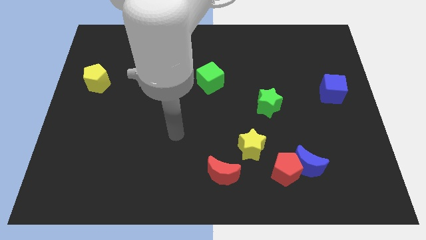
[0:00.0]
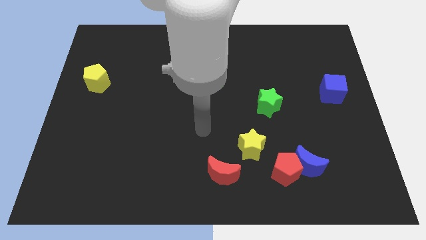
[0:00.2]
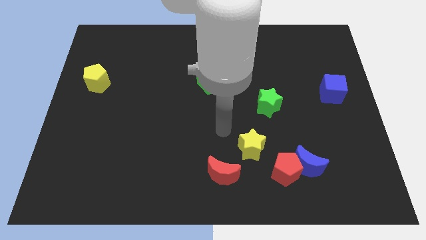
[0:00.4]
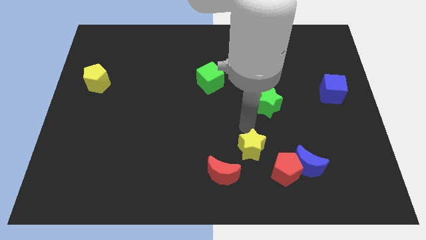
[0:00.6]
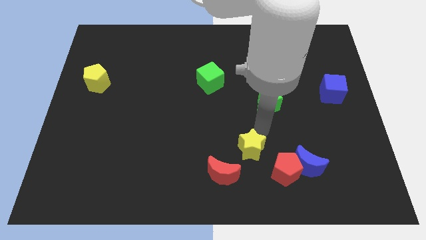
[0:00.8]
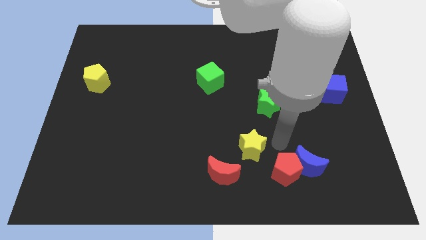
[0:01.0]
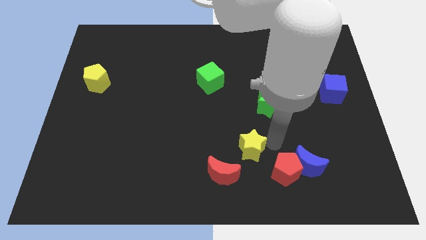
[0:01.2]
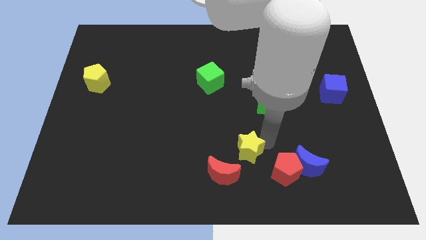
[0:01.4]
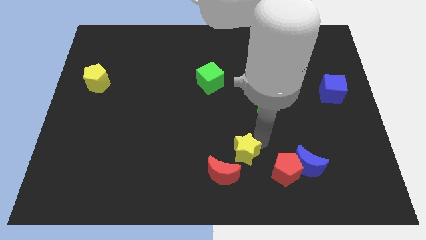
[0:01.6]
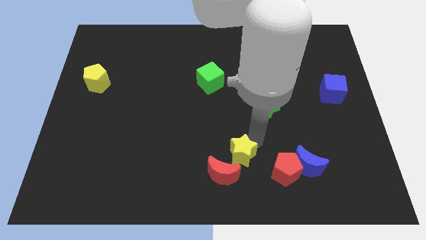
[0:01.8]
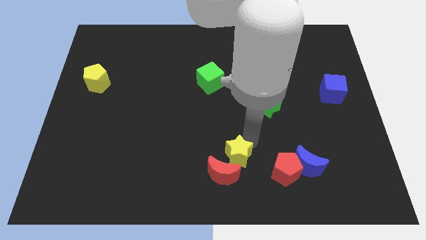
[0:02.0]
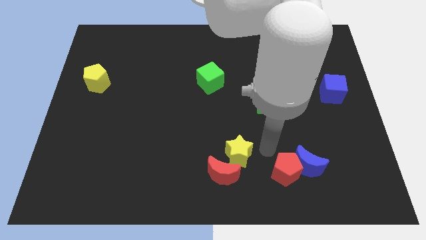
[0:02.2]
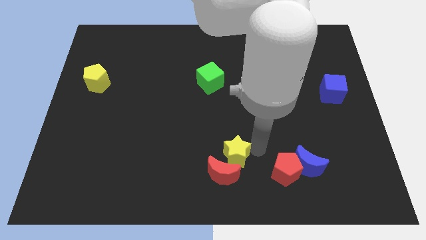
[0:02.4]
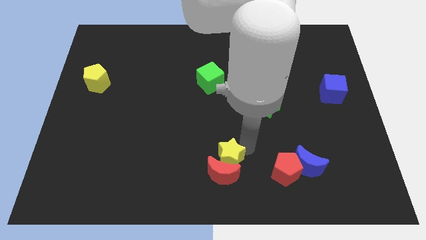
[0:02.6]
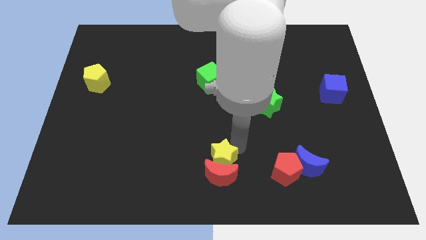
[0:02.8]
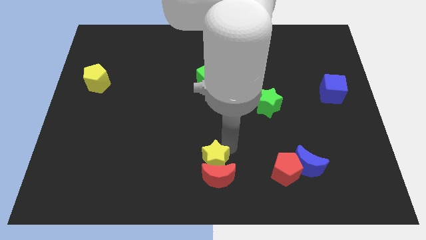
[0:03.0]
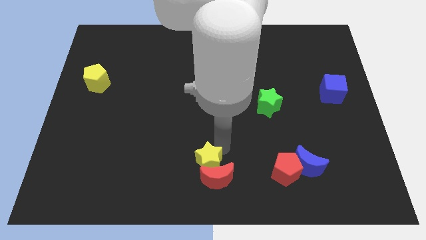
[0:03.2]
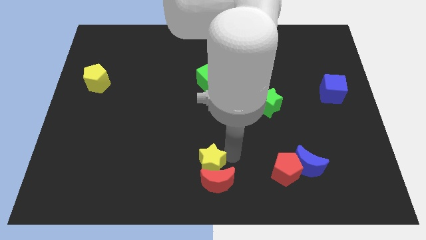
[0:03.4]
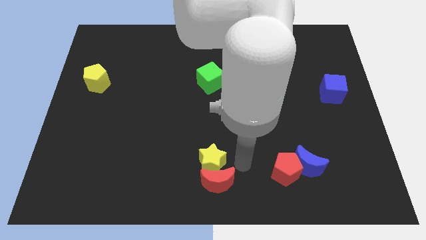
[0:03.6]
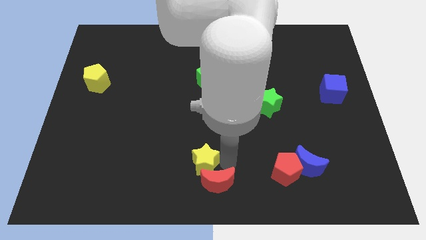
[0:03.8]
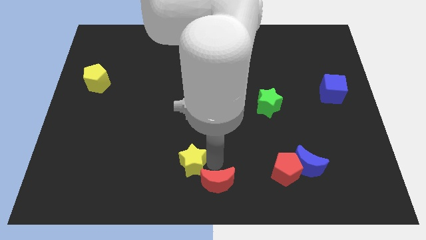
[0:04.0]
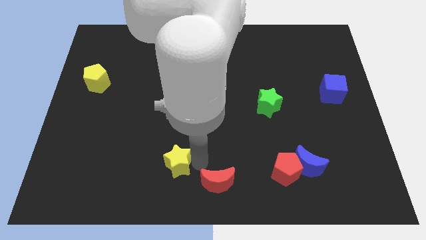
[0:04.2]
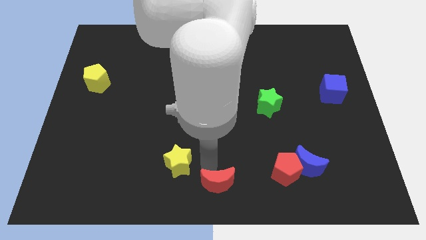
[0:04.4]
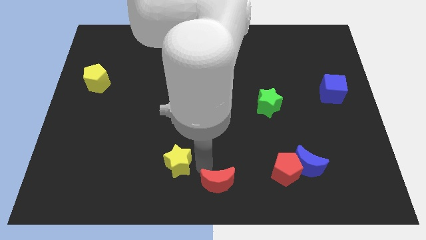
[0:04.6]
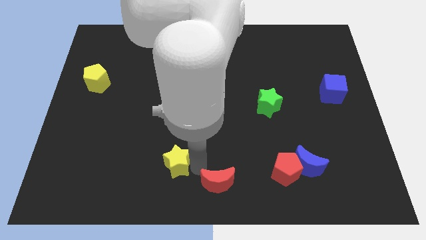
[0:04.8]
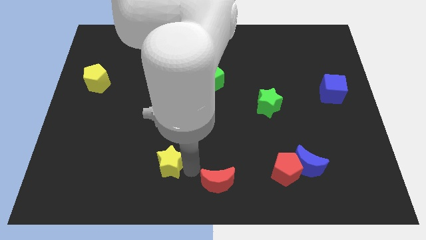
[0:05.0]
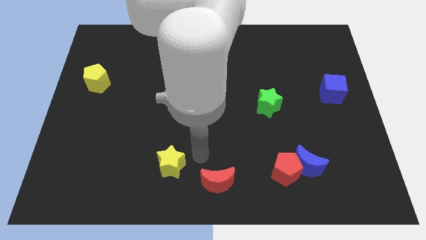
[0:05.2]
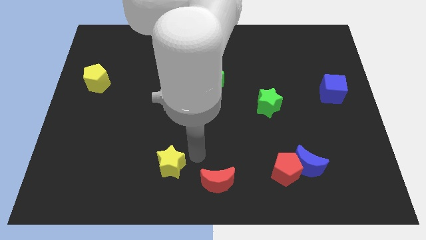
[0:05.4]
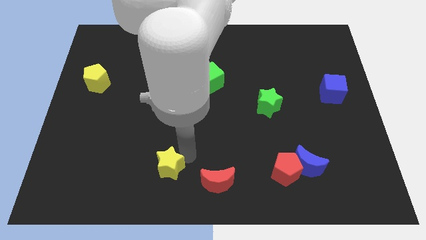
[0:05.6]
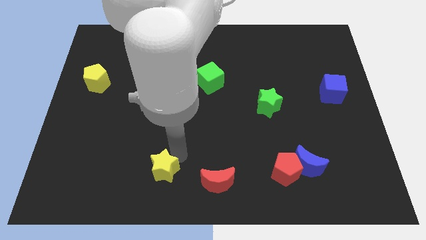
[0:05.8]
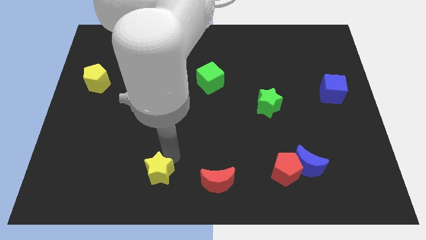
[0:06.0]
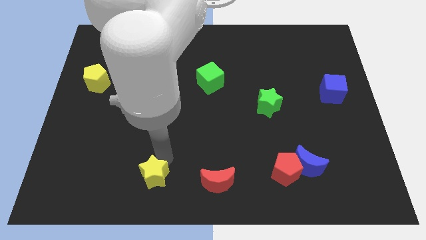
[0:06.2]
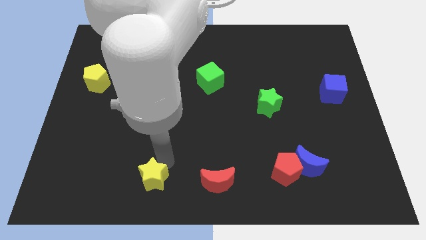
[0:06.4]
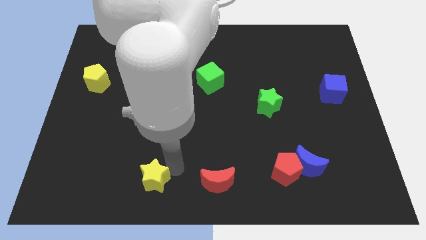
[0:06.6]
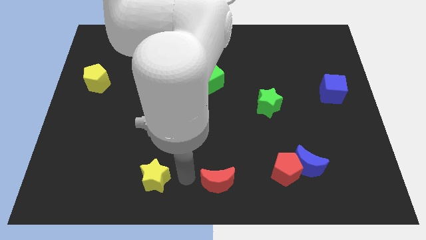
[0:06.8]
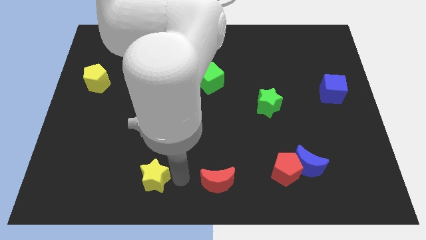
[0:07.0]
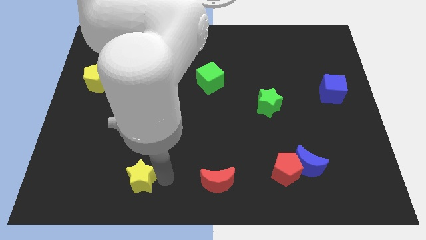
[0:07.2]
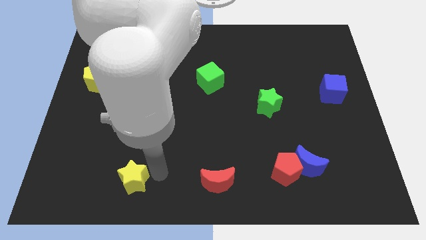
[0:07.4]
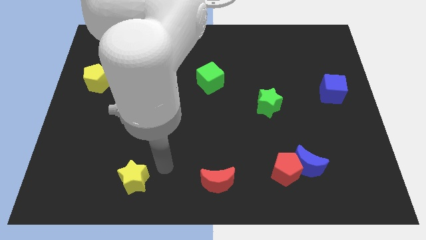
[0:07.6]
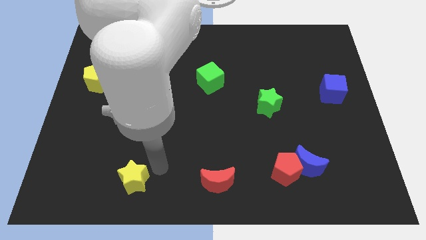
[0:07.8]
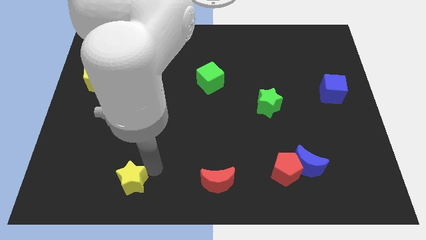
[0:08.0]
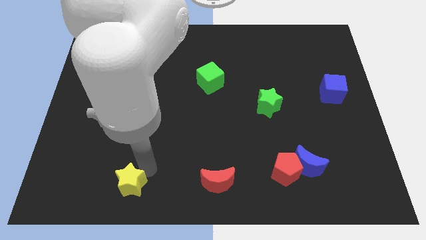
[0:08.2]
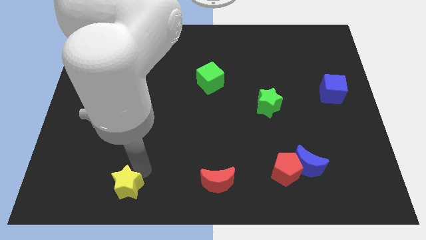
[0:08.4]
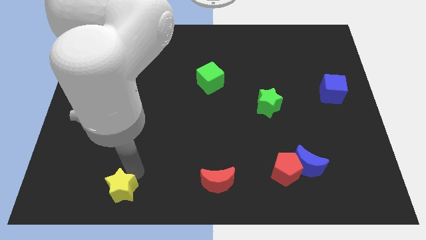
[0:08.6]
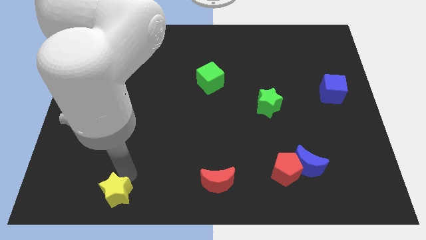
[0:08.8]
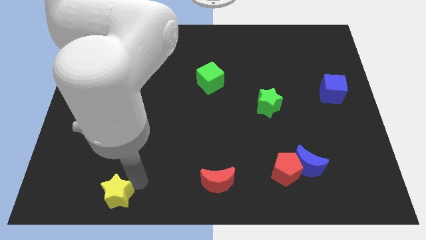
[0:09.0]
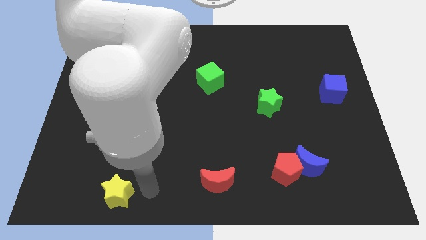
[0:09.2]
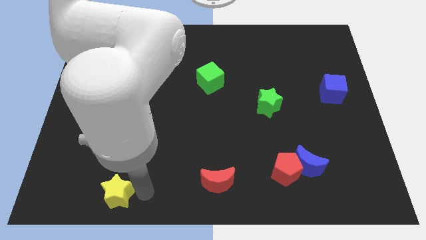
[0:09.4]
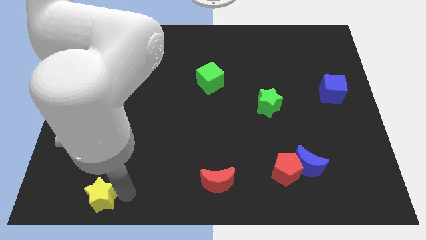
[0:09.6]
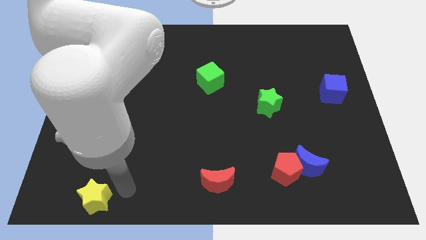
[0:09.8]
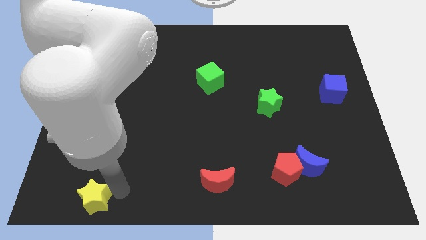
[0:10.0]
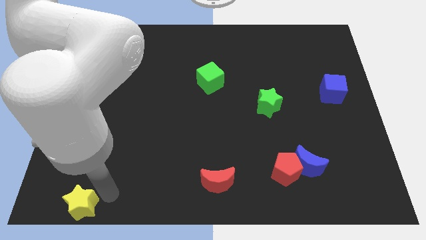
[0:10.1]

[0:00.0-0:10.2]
slide the yellow star to the bottom left corner

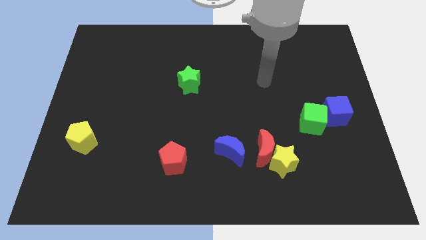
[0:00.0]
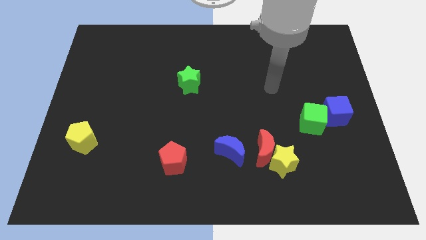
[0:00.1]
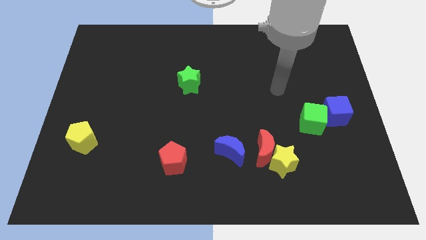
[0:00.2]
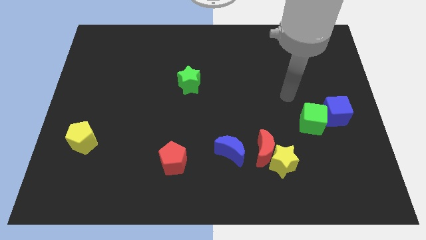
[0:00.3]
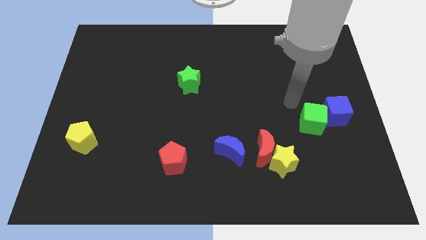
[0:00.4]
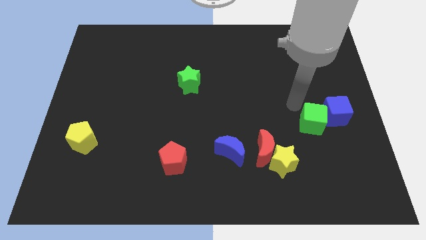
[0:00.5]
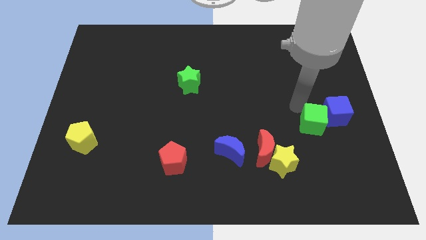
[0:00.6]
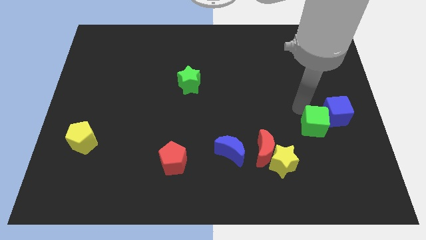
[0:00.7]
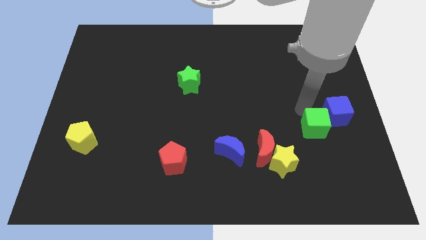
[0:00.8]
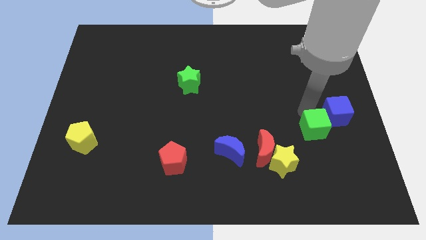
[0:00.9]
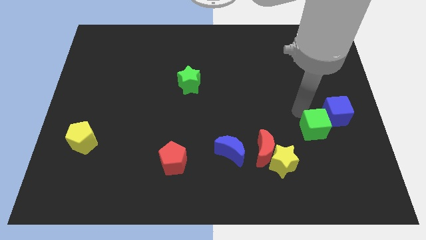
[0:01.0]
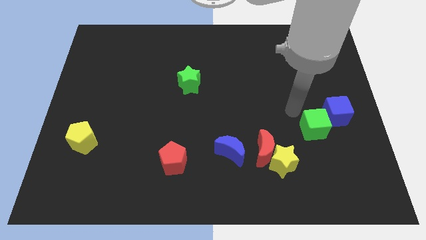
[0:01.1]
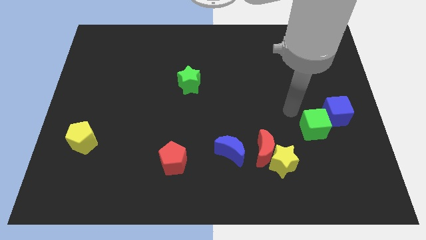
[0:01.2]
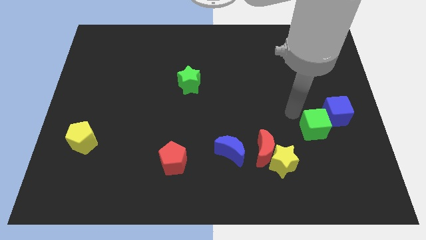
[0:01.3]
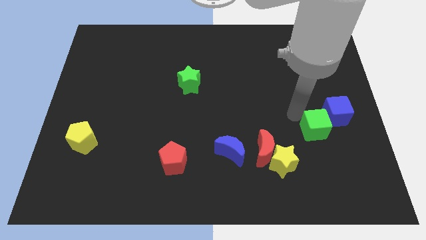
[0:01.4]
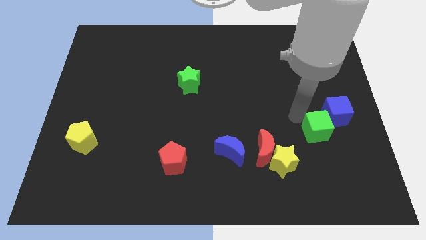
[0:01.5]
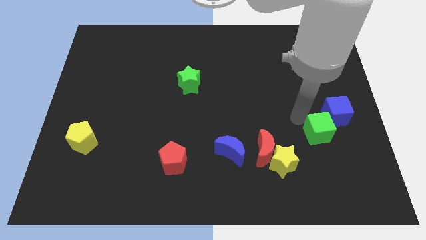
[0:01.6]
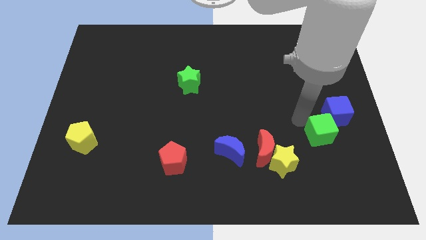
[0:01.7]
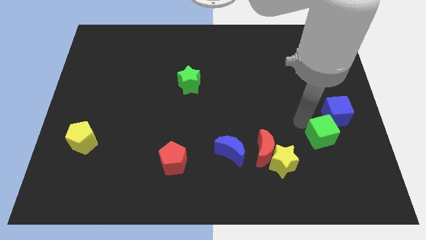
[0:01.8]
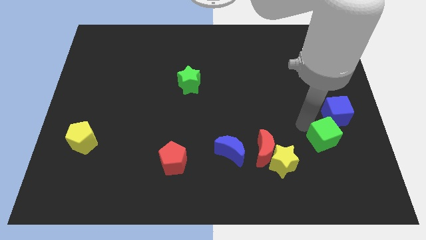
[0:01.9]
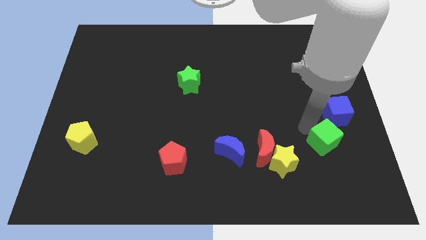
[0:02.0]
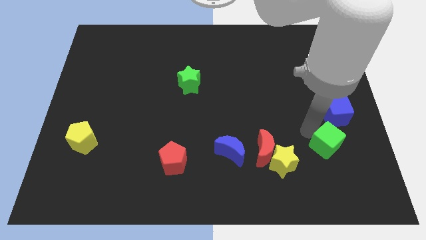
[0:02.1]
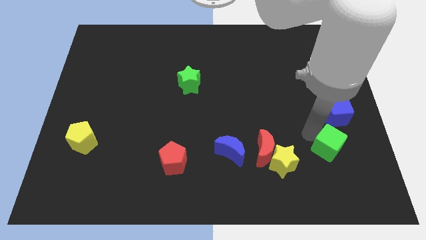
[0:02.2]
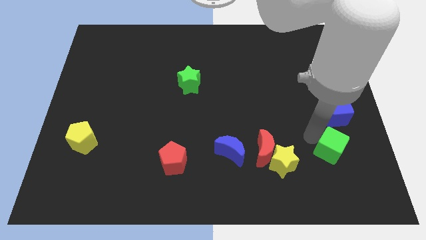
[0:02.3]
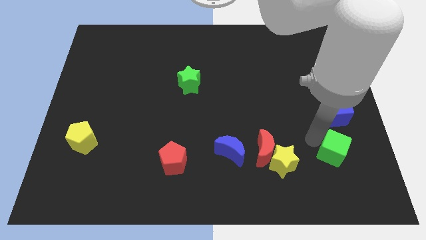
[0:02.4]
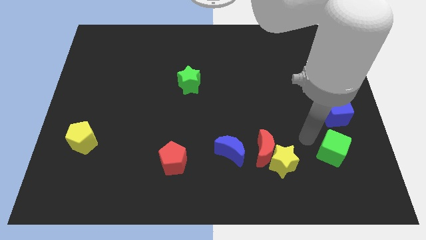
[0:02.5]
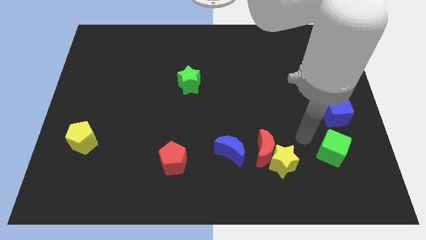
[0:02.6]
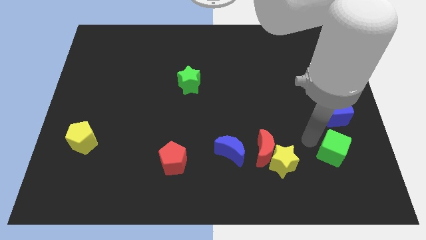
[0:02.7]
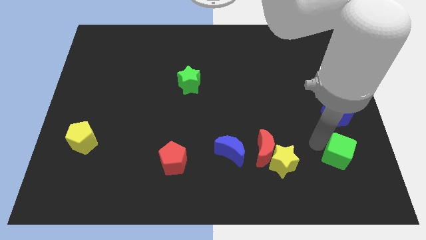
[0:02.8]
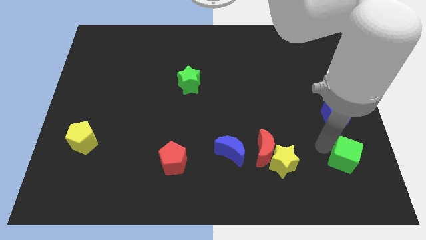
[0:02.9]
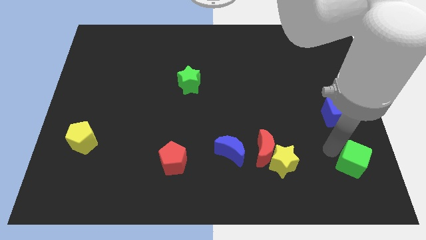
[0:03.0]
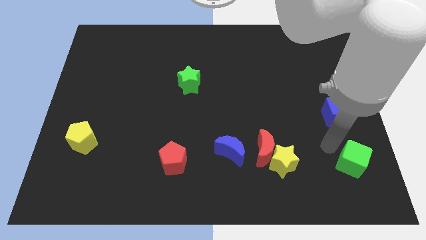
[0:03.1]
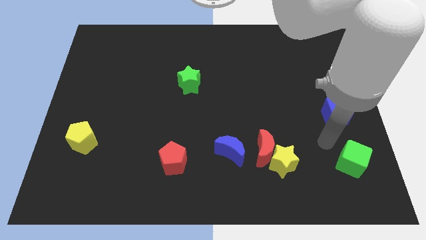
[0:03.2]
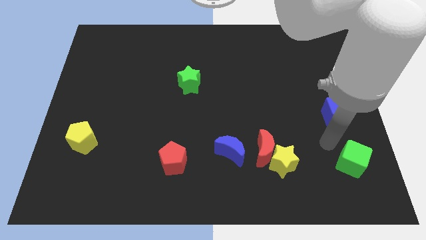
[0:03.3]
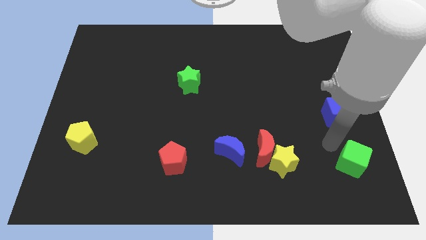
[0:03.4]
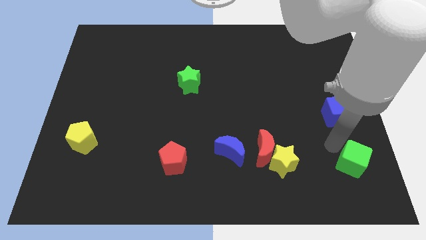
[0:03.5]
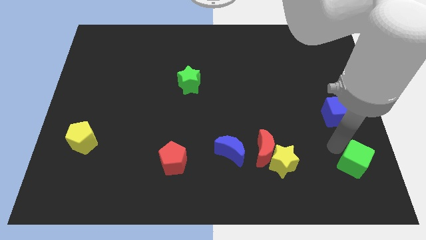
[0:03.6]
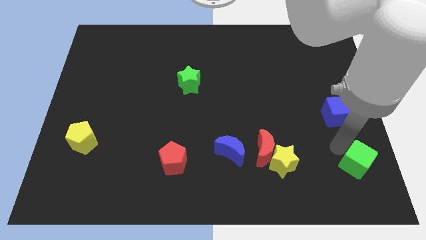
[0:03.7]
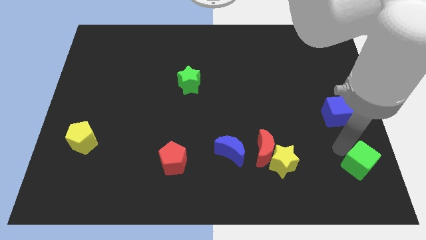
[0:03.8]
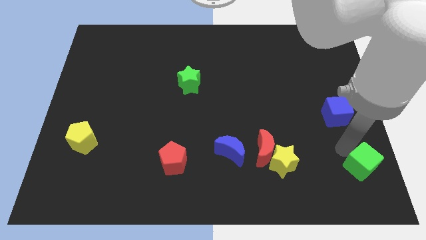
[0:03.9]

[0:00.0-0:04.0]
put the green cube to the bottom right of the board
